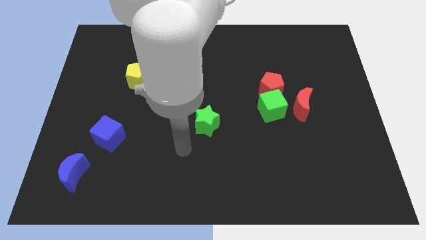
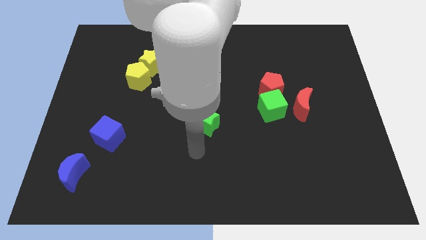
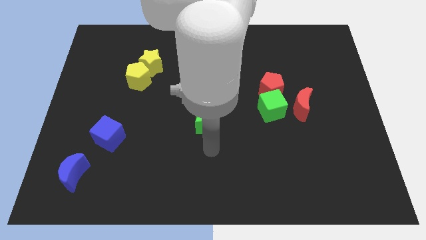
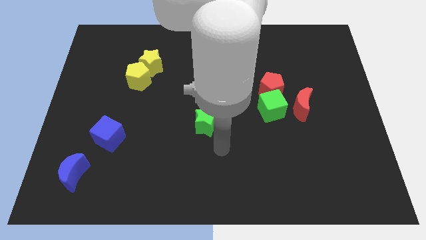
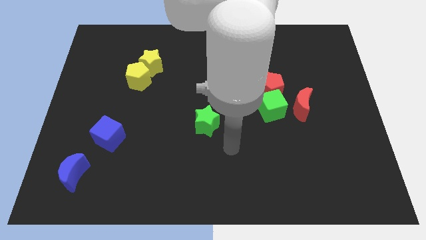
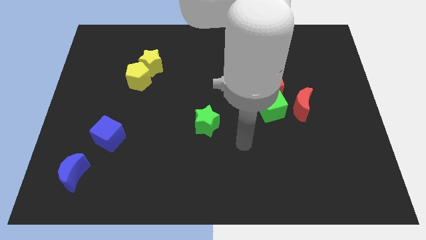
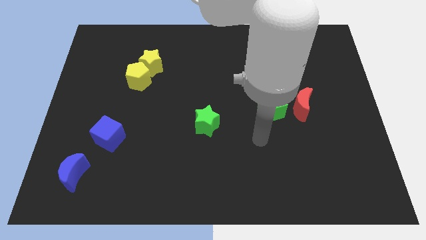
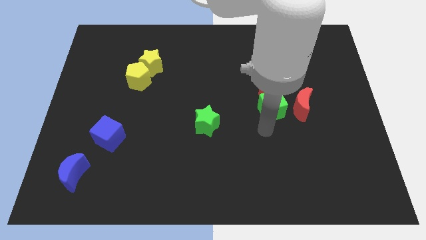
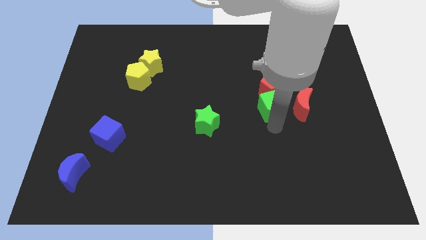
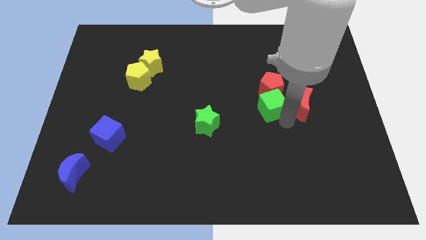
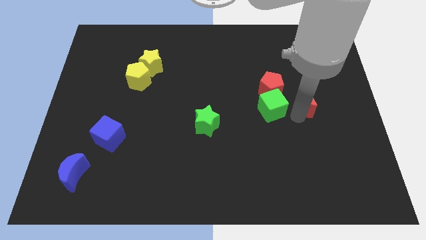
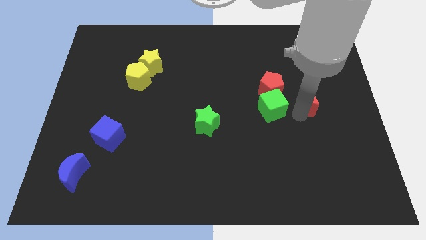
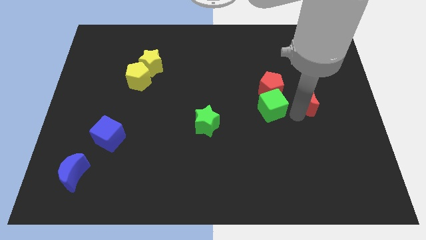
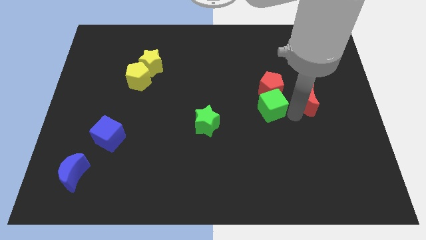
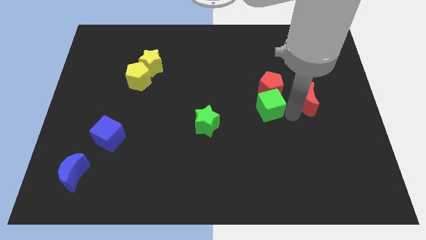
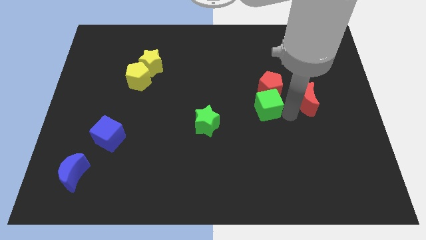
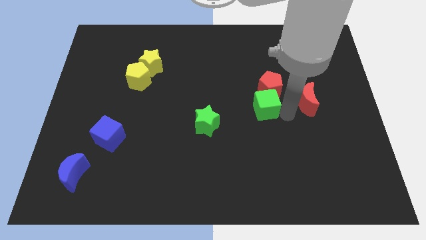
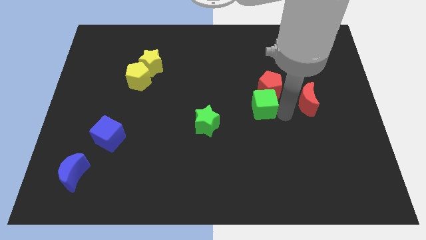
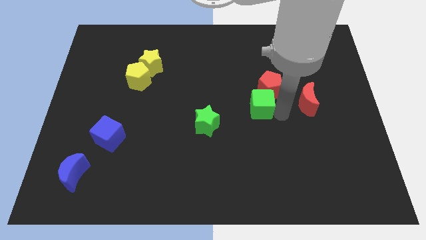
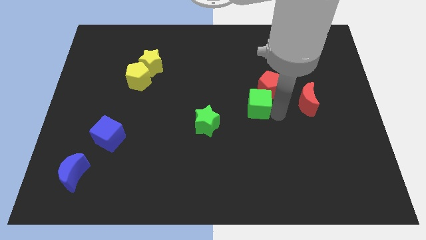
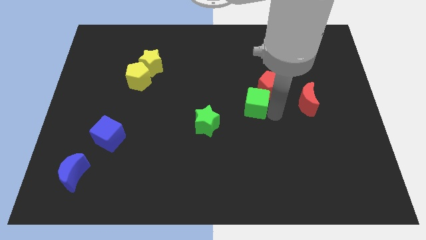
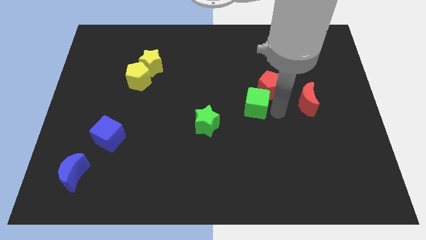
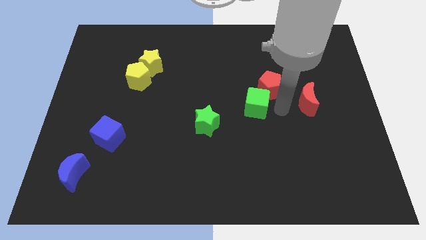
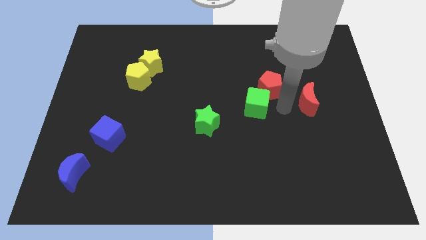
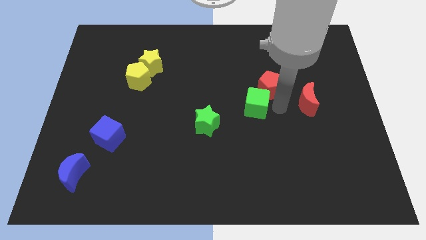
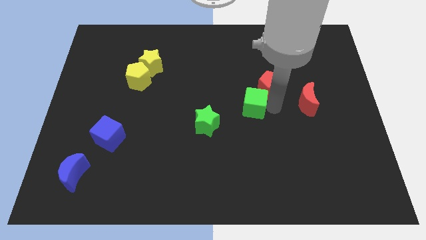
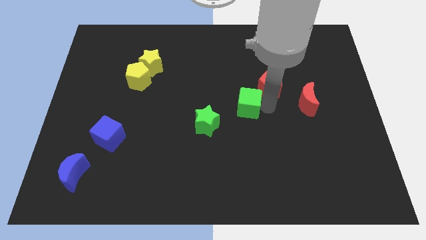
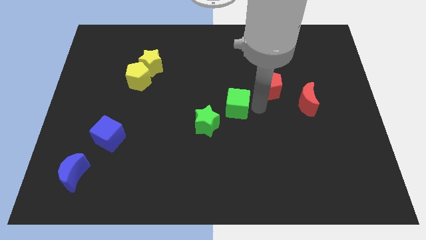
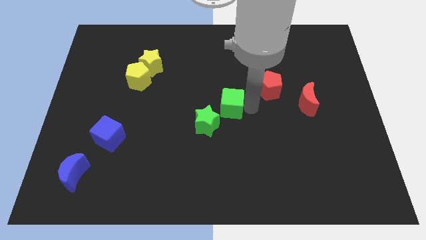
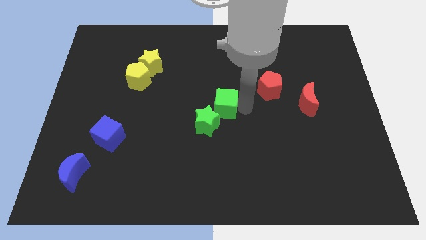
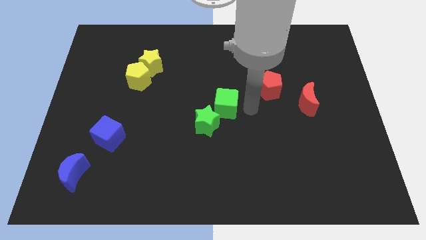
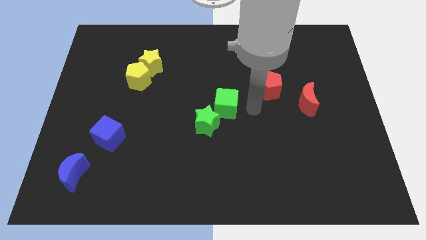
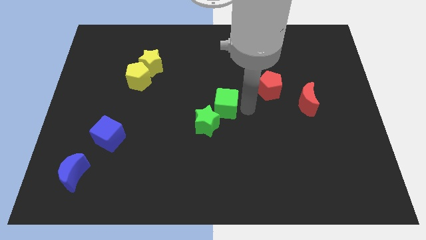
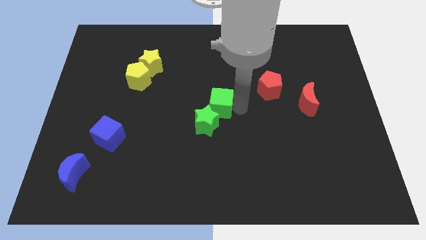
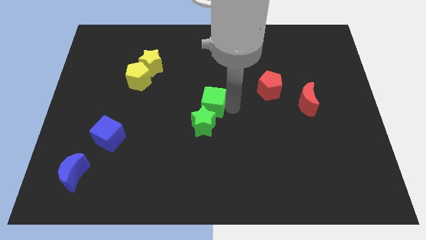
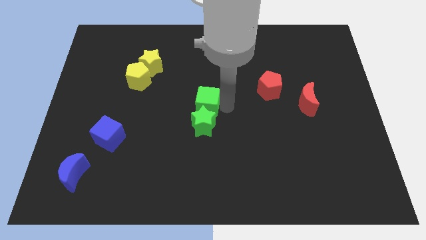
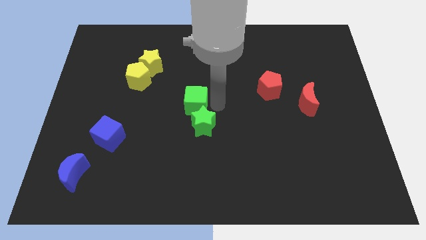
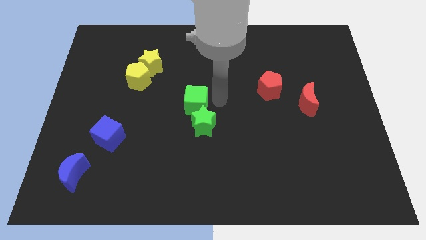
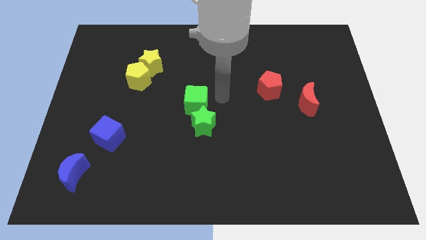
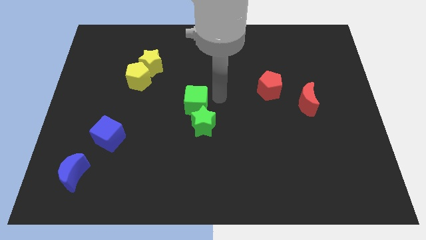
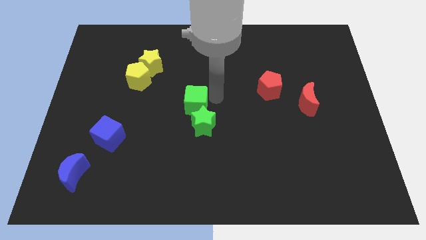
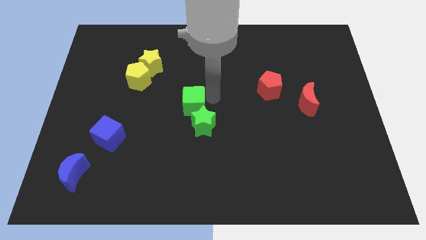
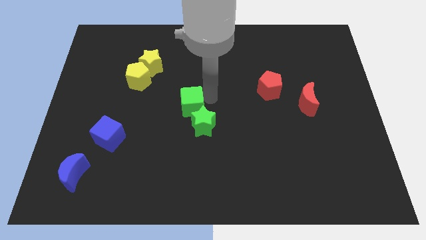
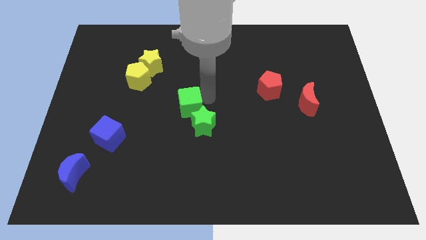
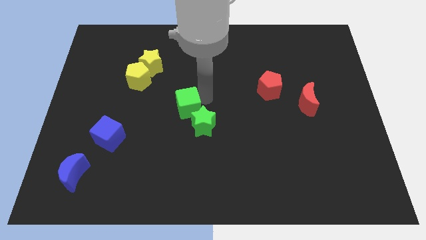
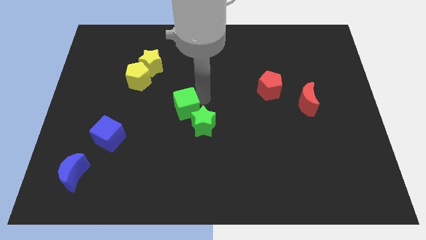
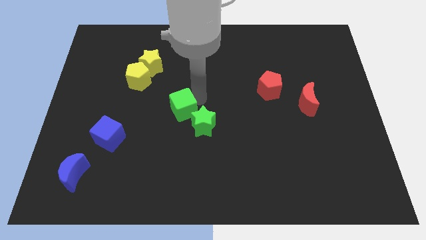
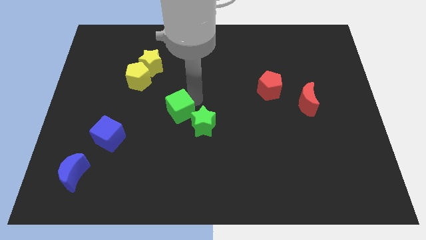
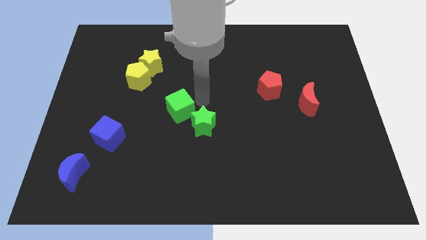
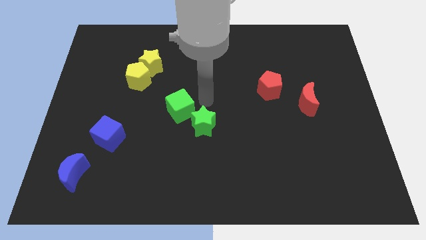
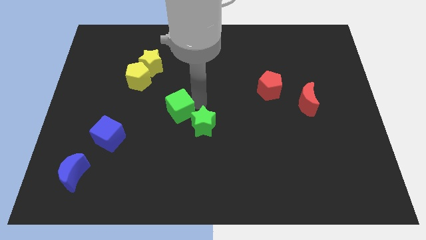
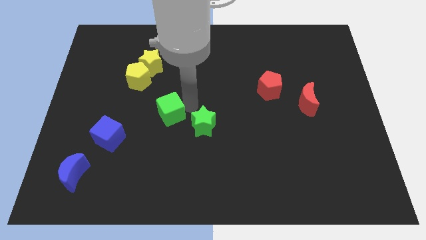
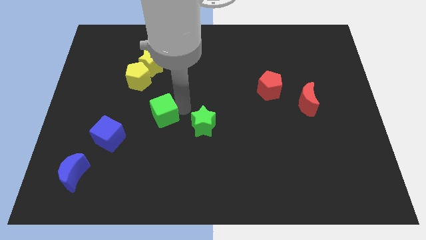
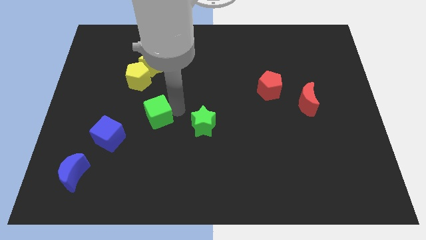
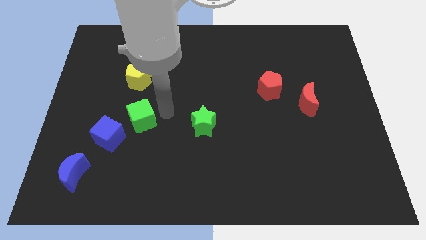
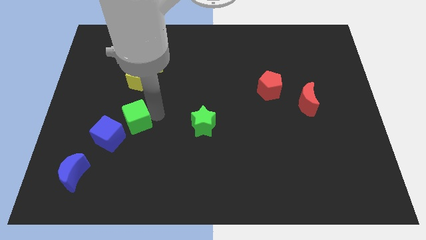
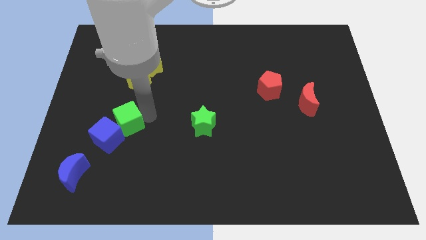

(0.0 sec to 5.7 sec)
push the green cube towards the blue cube

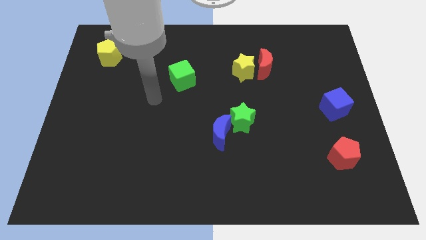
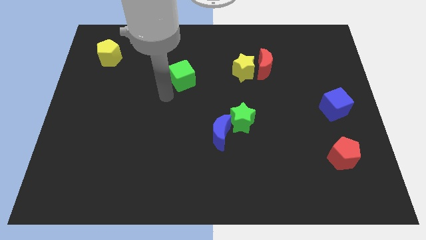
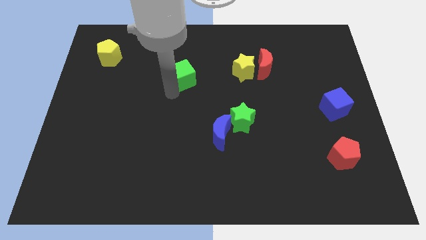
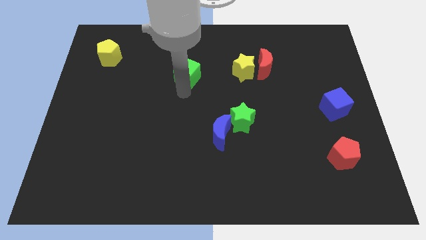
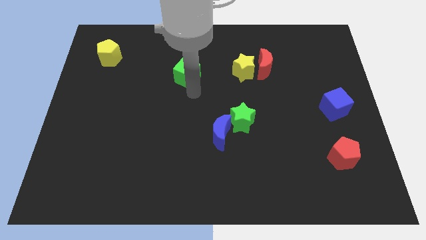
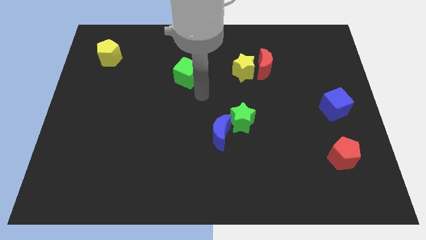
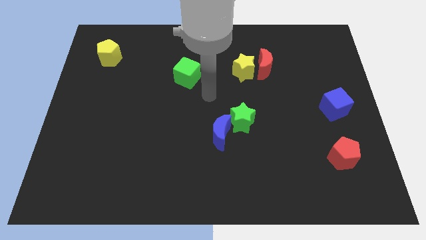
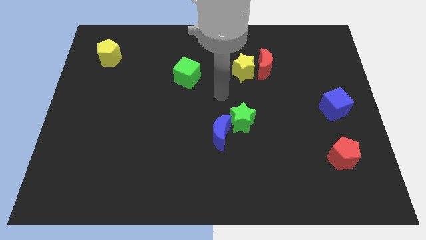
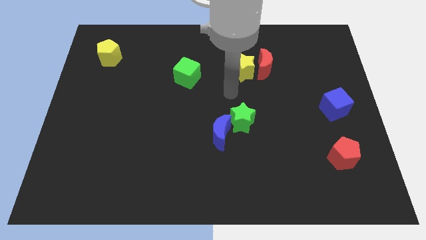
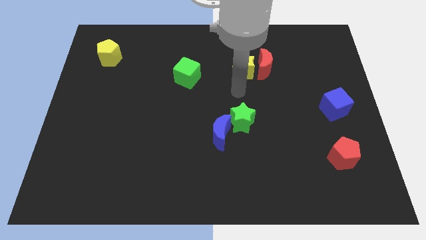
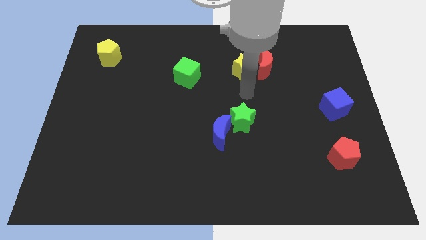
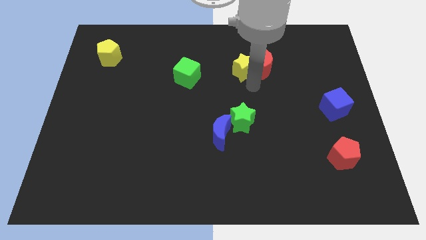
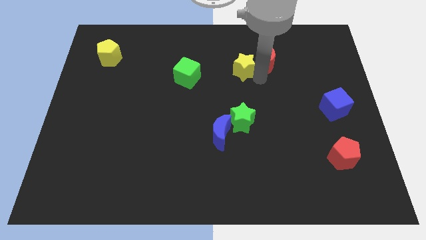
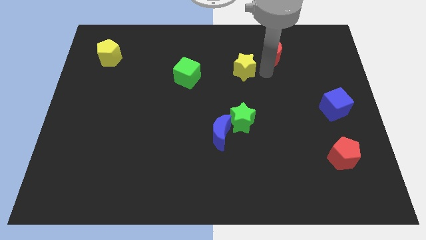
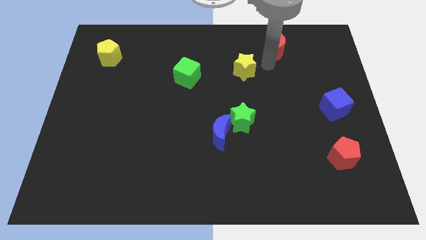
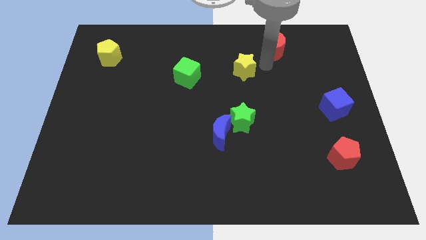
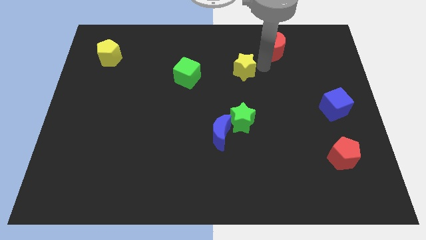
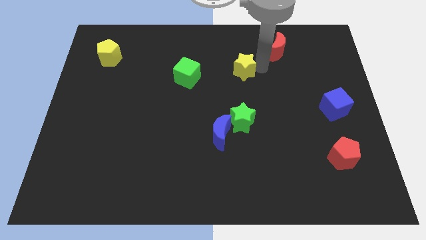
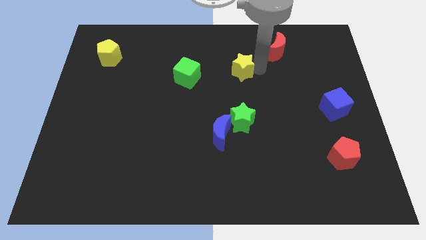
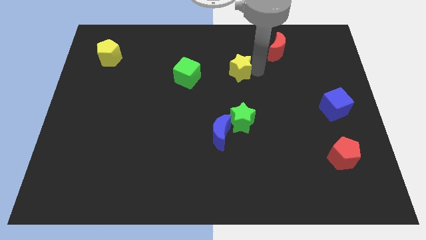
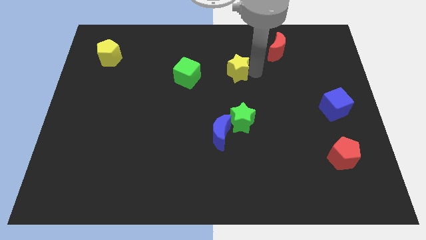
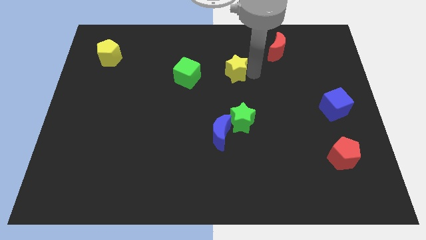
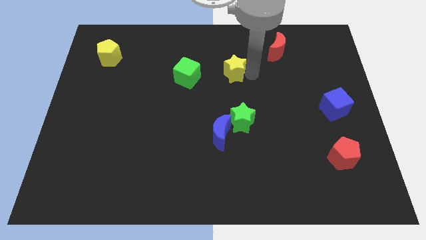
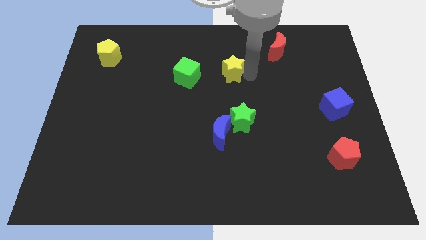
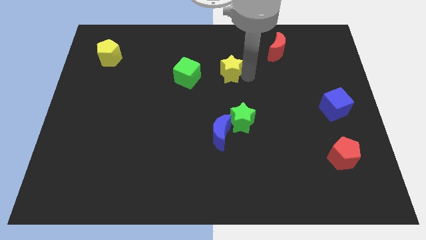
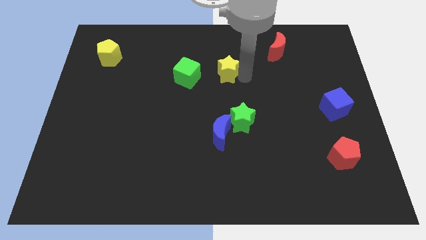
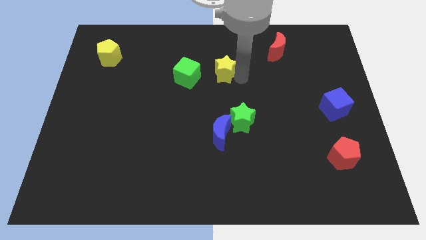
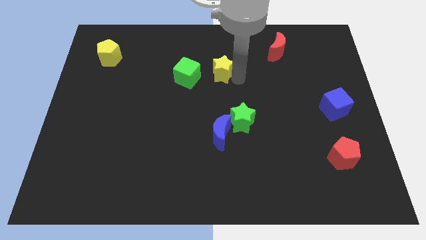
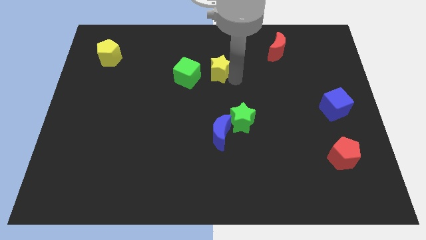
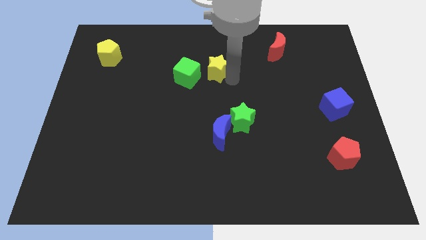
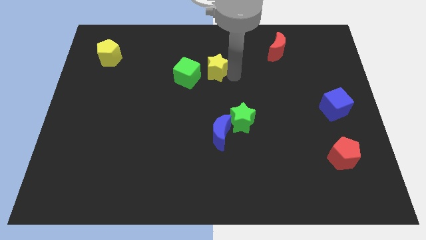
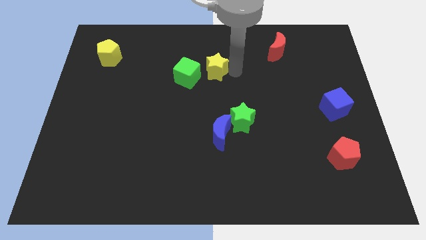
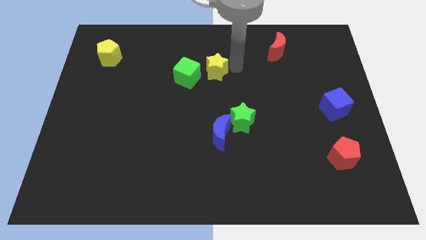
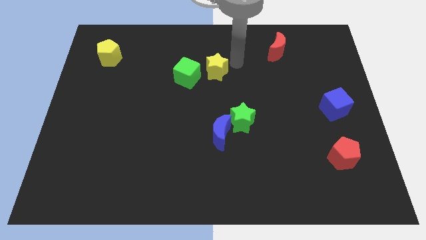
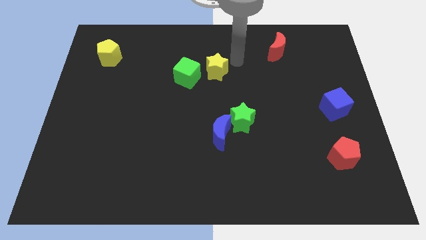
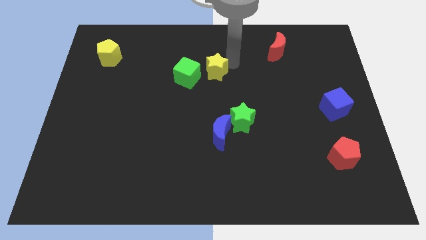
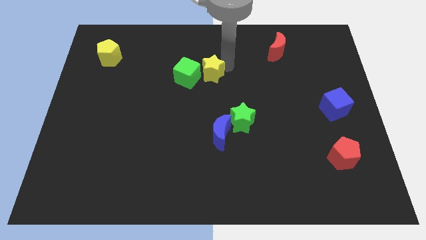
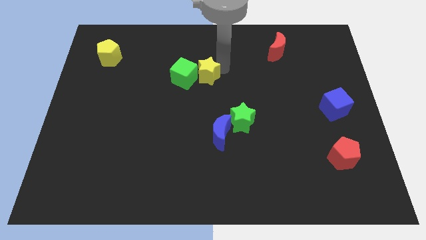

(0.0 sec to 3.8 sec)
move the yellow star towards the green cube
